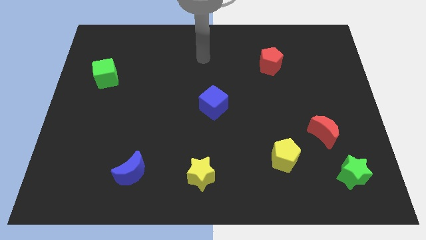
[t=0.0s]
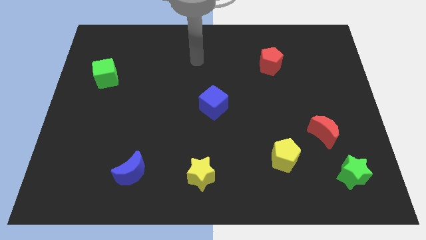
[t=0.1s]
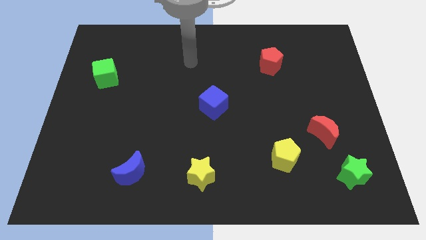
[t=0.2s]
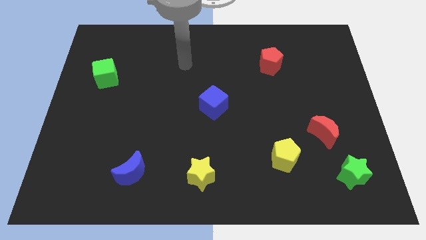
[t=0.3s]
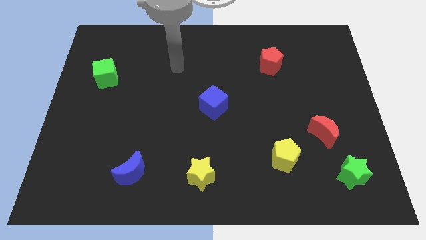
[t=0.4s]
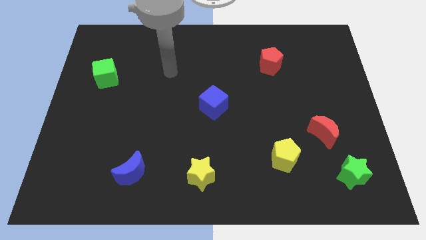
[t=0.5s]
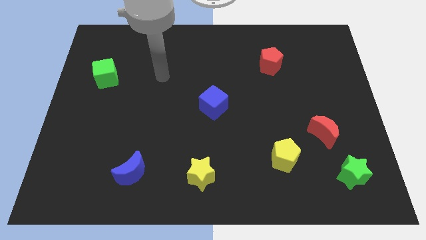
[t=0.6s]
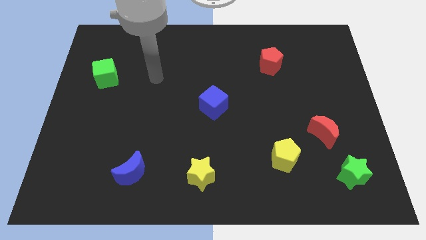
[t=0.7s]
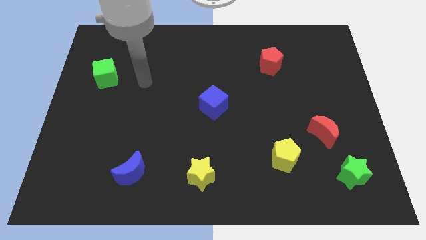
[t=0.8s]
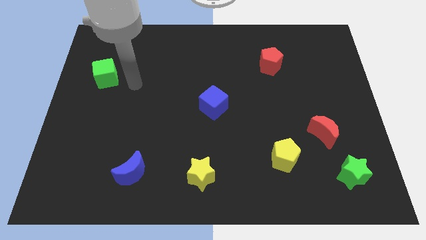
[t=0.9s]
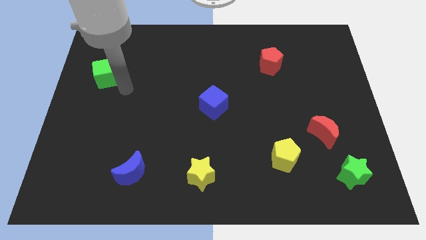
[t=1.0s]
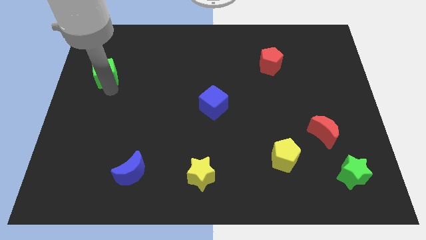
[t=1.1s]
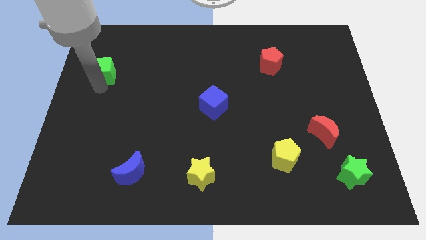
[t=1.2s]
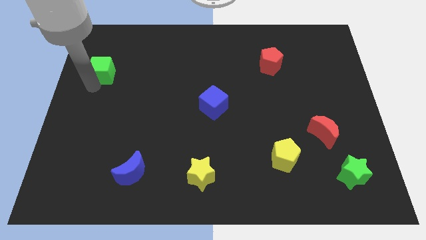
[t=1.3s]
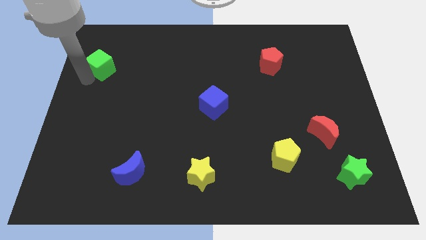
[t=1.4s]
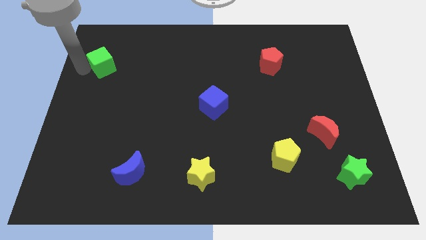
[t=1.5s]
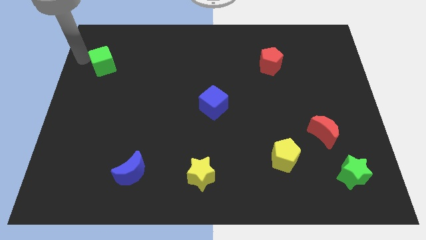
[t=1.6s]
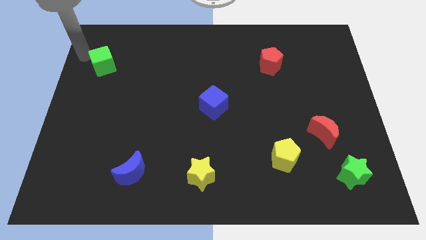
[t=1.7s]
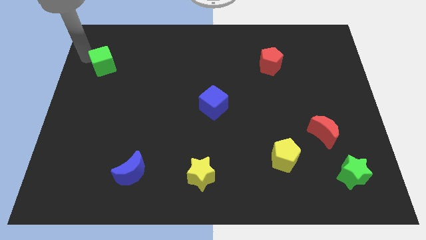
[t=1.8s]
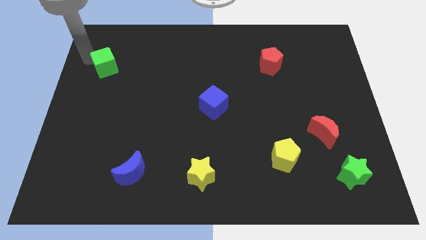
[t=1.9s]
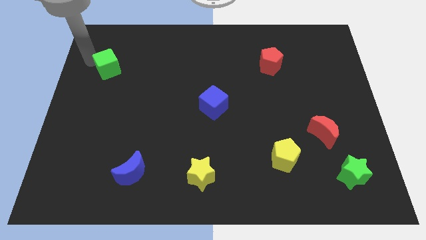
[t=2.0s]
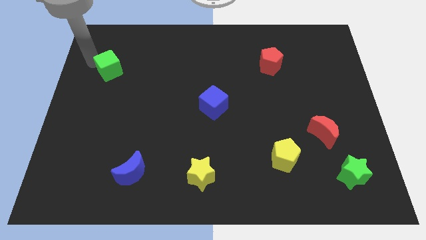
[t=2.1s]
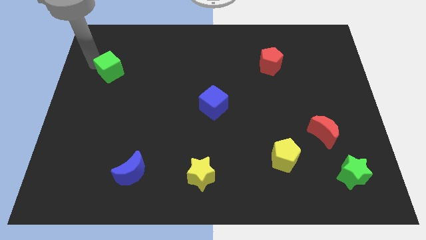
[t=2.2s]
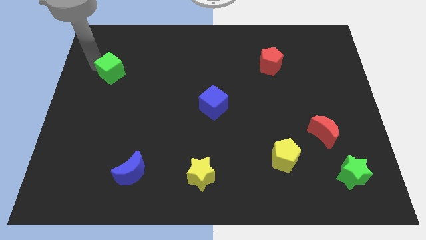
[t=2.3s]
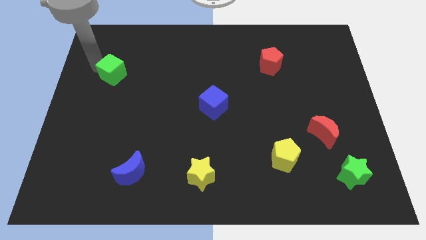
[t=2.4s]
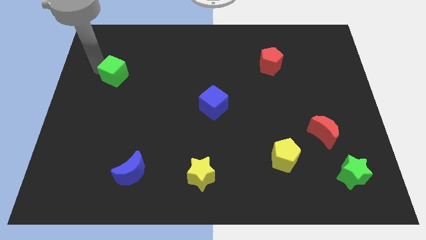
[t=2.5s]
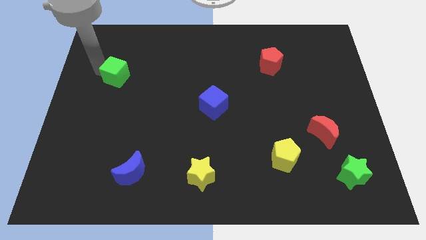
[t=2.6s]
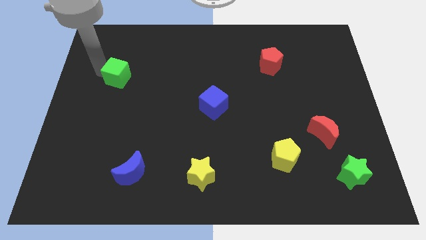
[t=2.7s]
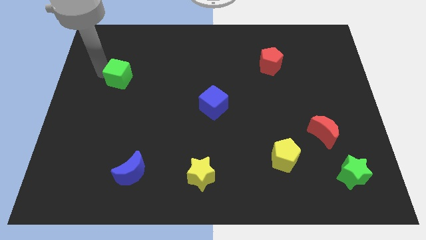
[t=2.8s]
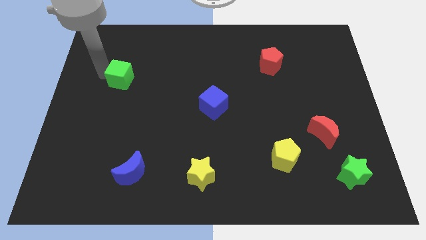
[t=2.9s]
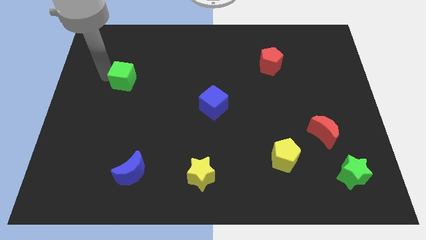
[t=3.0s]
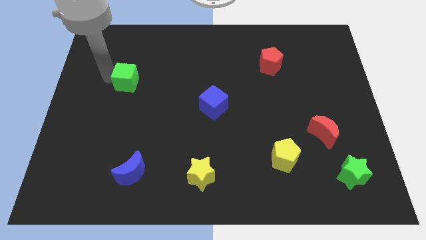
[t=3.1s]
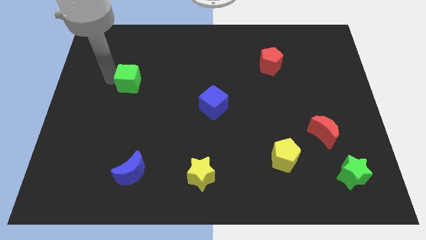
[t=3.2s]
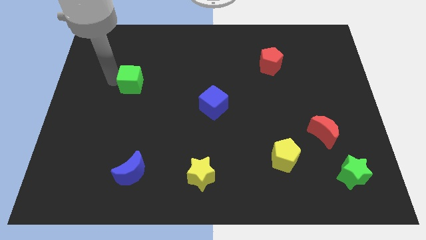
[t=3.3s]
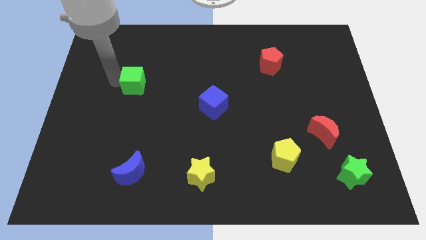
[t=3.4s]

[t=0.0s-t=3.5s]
slide the green cube a little bit to the right

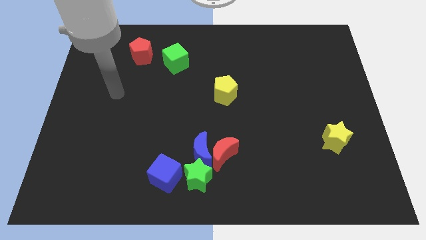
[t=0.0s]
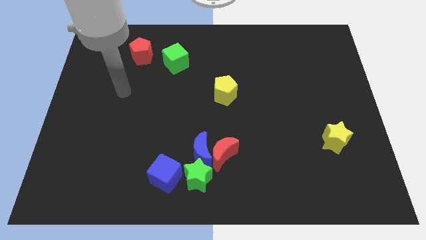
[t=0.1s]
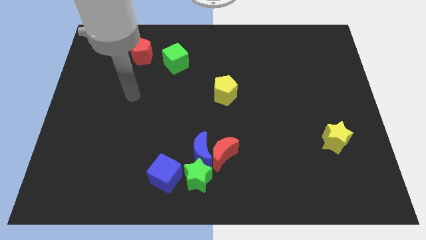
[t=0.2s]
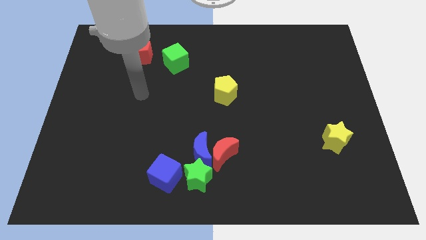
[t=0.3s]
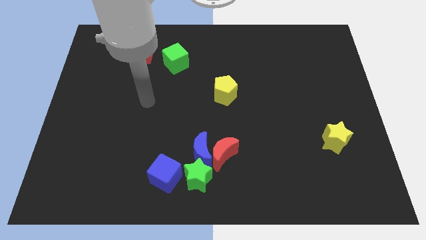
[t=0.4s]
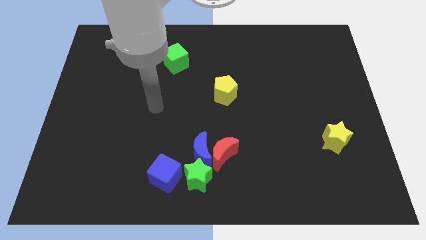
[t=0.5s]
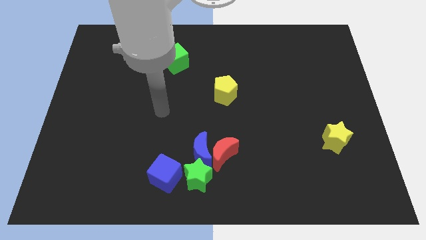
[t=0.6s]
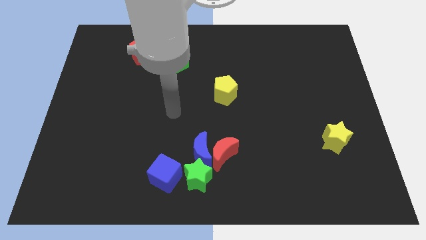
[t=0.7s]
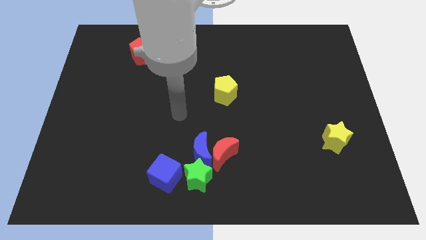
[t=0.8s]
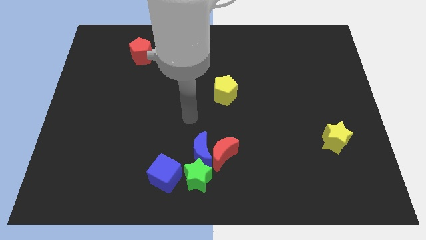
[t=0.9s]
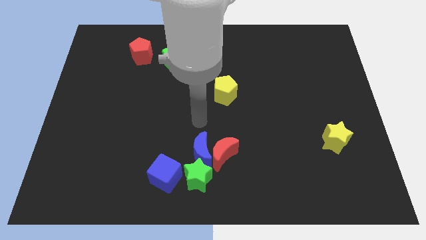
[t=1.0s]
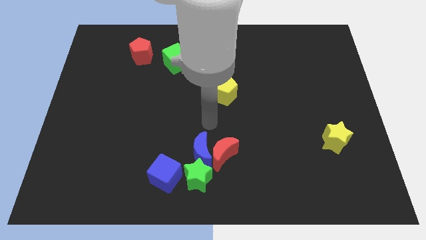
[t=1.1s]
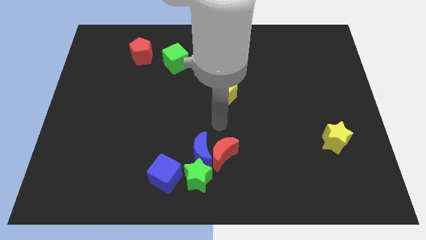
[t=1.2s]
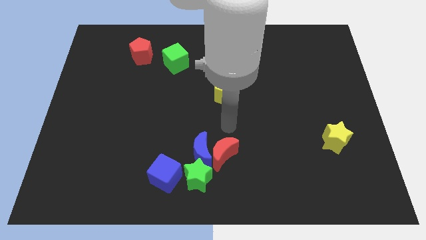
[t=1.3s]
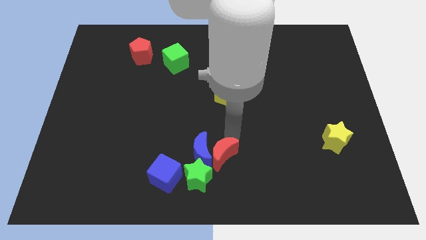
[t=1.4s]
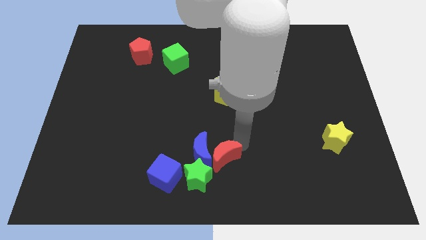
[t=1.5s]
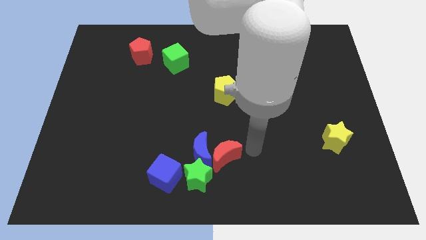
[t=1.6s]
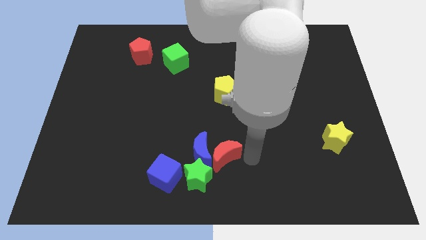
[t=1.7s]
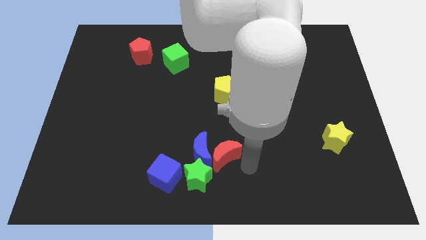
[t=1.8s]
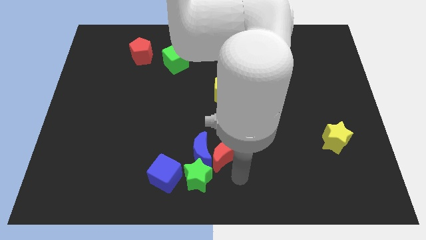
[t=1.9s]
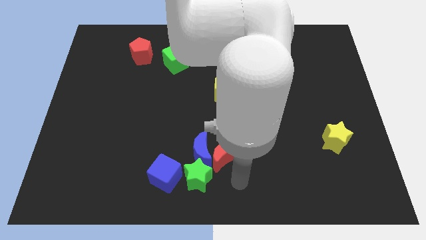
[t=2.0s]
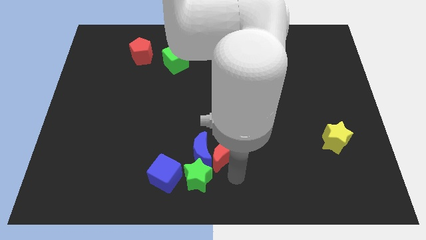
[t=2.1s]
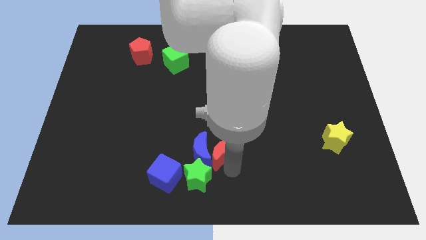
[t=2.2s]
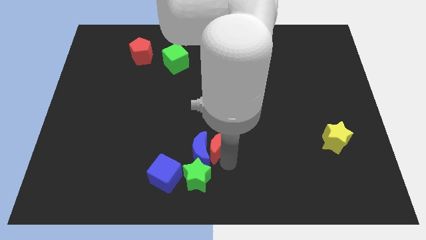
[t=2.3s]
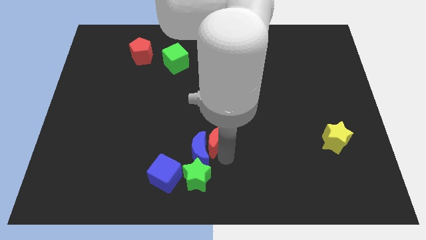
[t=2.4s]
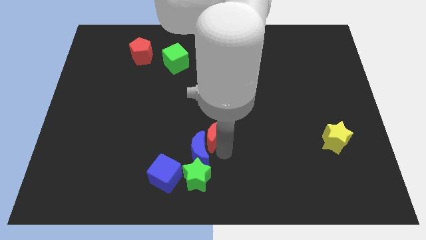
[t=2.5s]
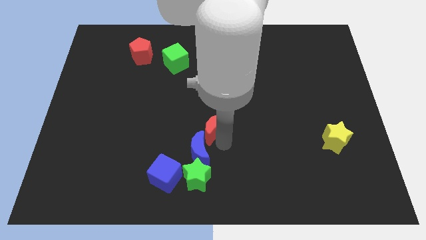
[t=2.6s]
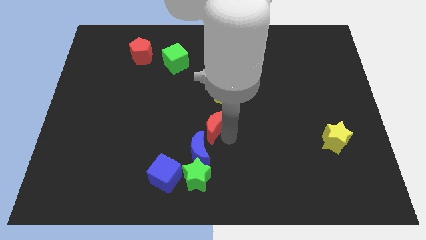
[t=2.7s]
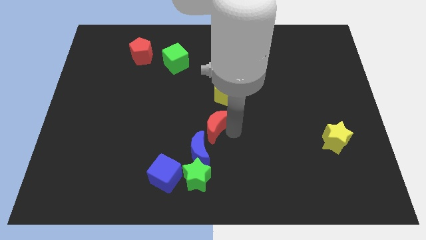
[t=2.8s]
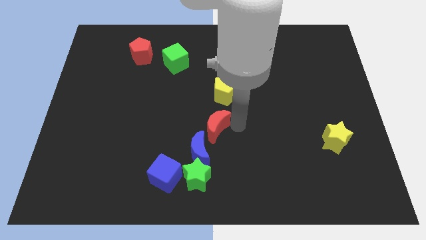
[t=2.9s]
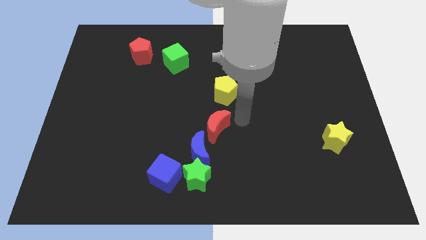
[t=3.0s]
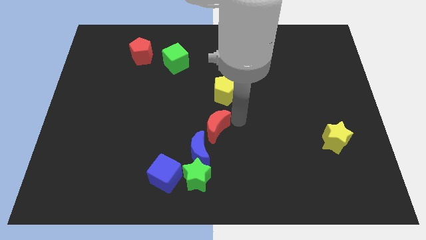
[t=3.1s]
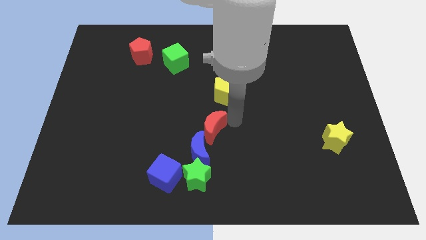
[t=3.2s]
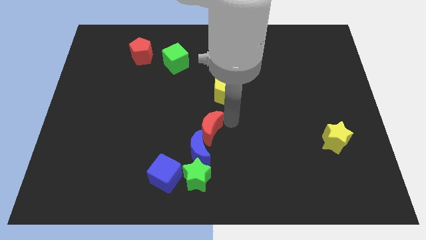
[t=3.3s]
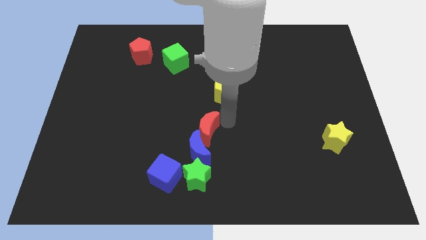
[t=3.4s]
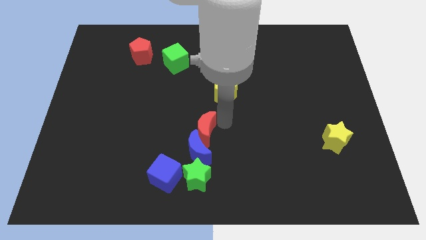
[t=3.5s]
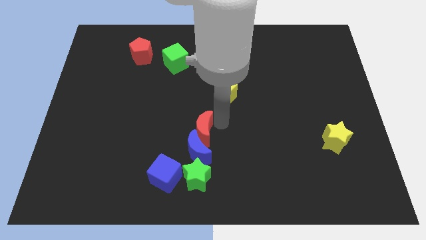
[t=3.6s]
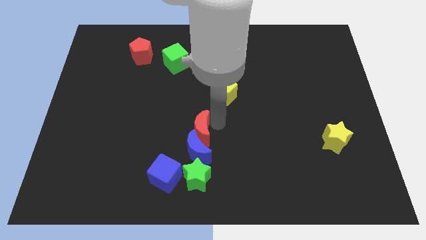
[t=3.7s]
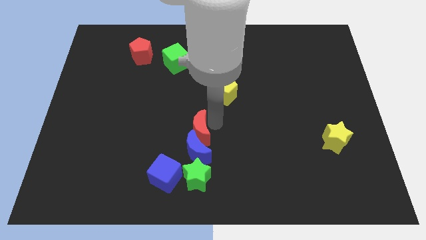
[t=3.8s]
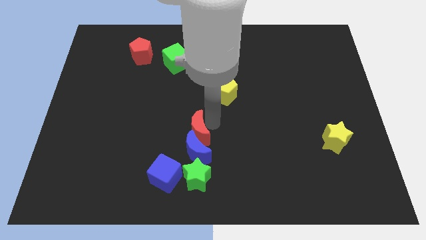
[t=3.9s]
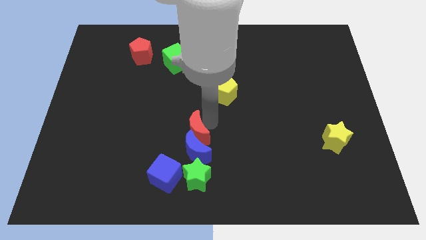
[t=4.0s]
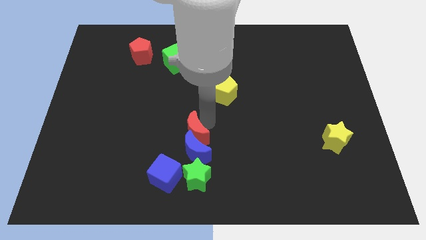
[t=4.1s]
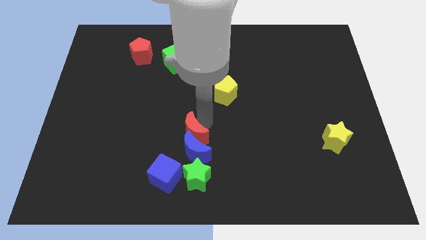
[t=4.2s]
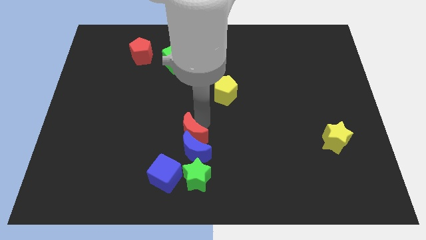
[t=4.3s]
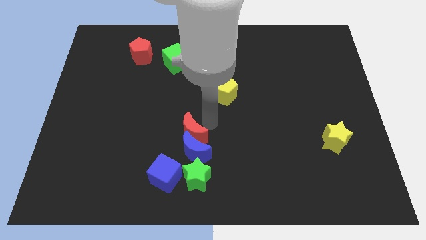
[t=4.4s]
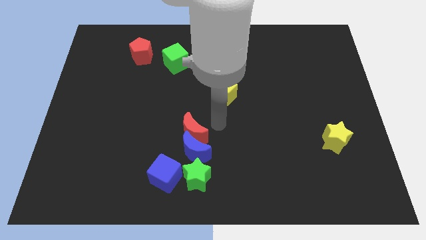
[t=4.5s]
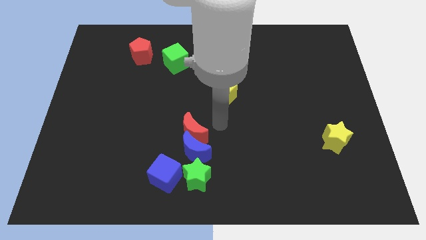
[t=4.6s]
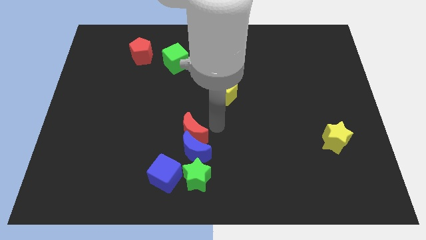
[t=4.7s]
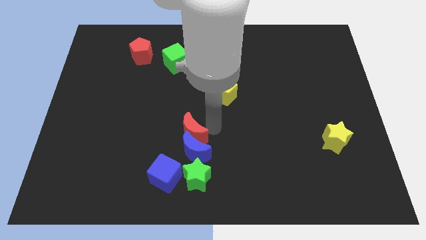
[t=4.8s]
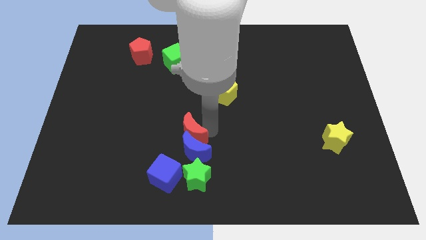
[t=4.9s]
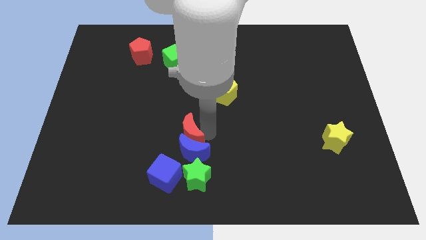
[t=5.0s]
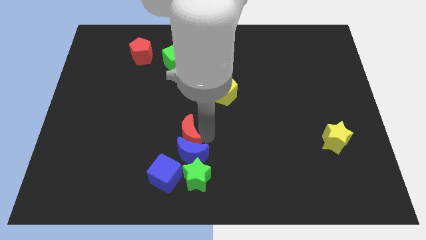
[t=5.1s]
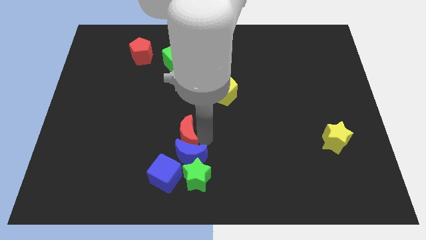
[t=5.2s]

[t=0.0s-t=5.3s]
slightly move the red moon left
